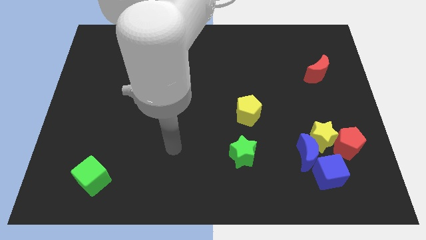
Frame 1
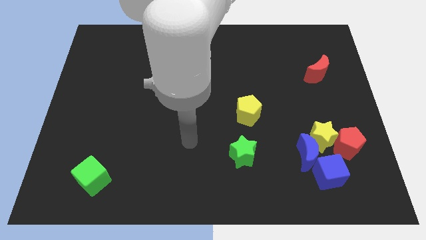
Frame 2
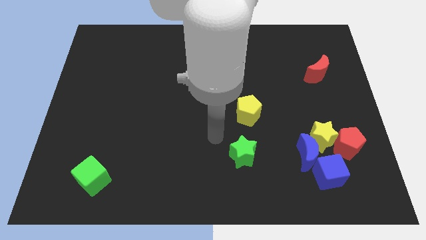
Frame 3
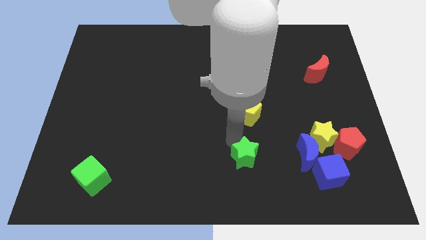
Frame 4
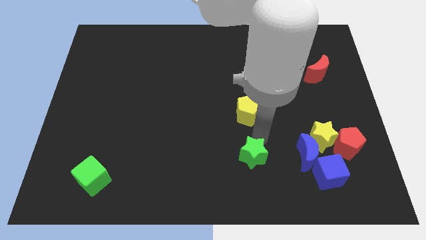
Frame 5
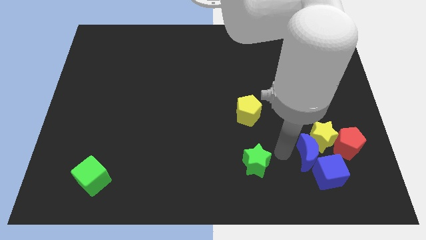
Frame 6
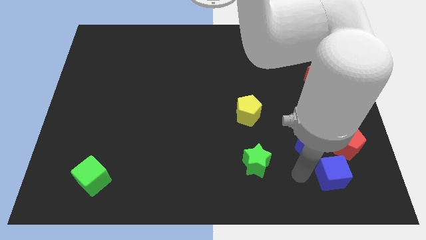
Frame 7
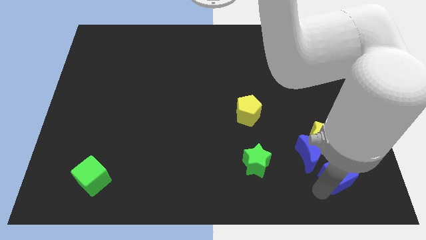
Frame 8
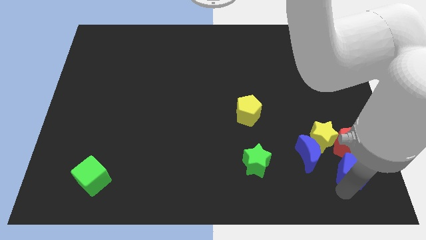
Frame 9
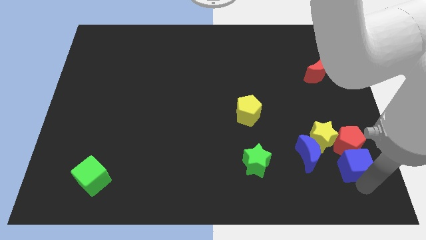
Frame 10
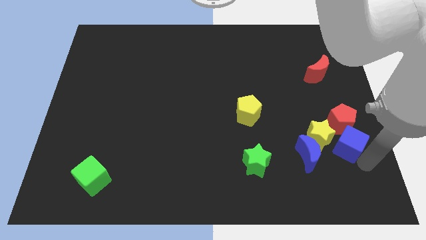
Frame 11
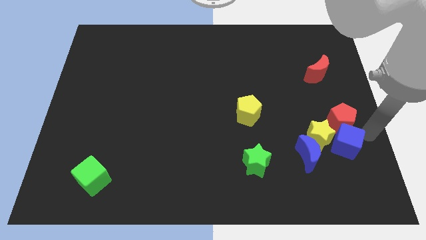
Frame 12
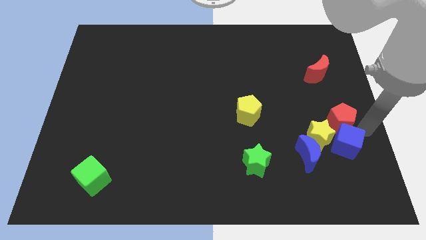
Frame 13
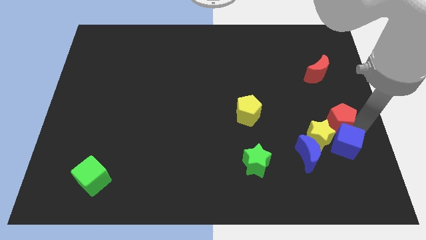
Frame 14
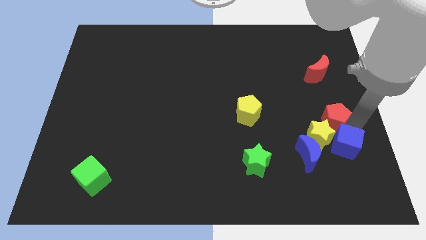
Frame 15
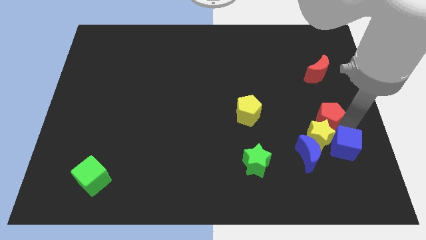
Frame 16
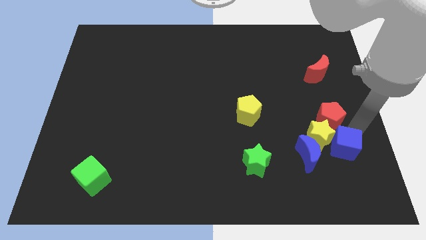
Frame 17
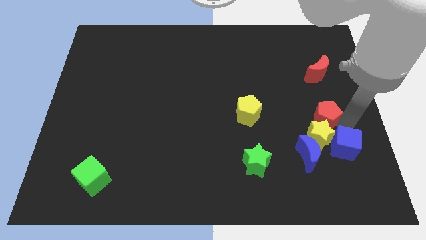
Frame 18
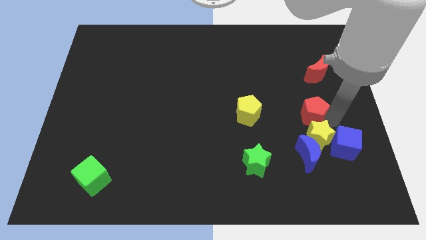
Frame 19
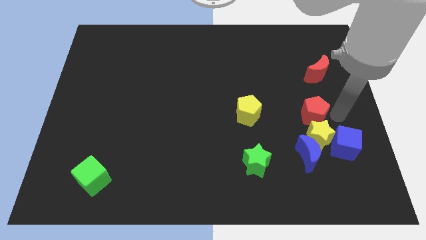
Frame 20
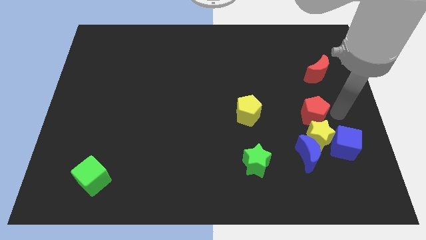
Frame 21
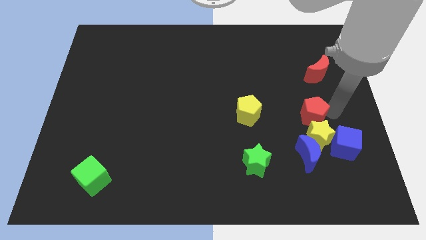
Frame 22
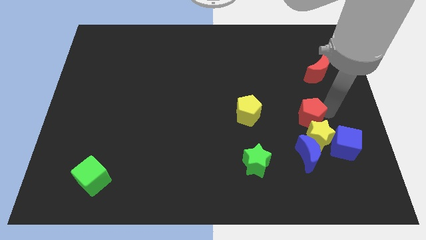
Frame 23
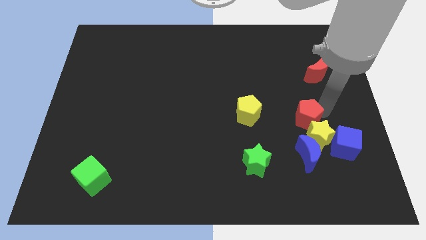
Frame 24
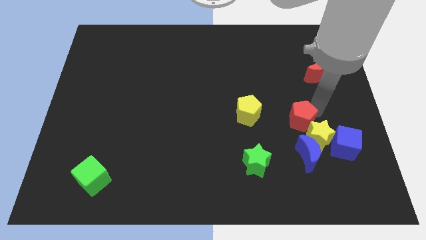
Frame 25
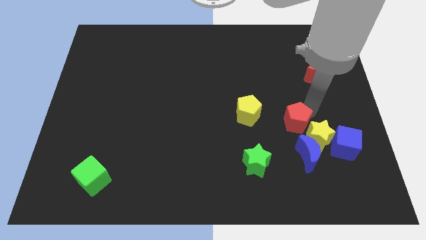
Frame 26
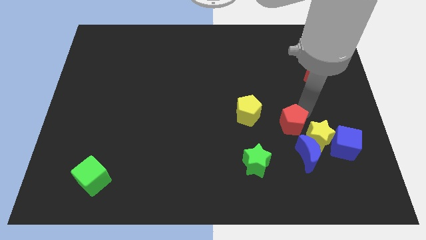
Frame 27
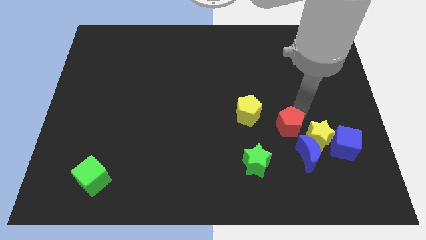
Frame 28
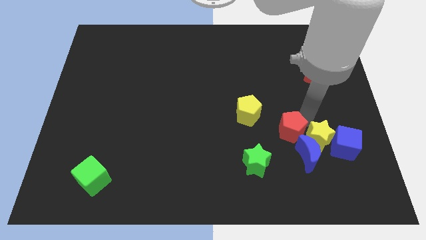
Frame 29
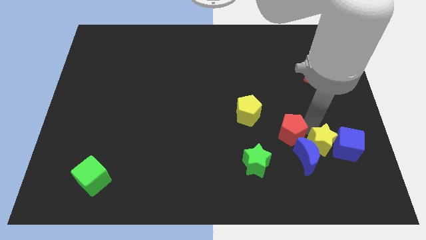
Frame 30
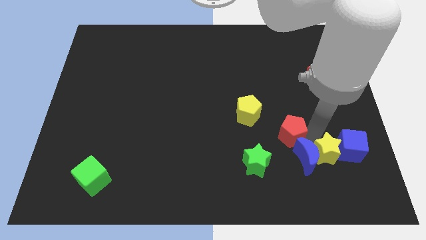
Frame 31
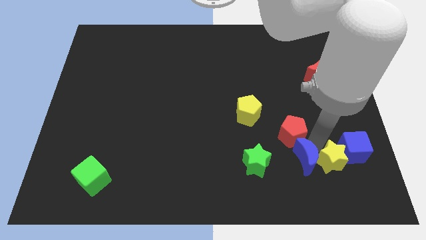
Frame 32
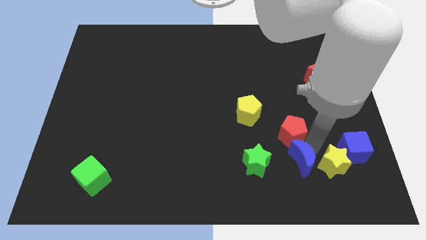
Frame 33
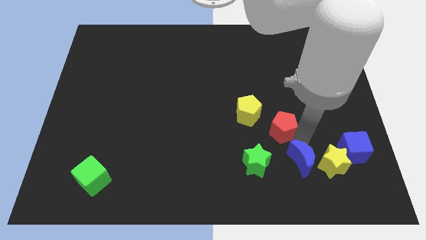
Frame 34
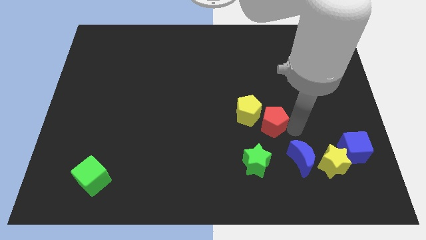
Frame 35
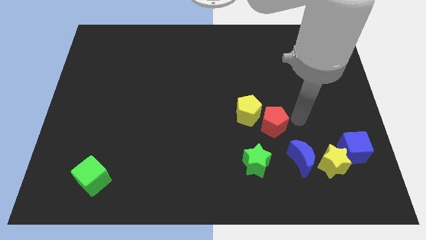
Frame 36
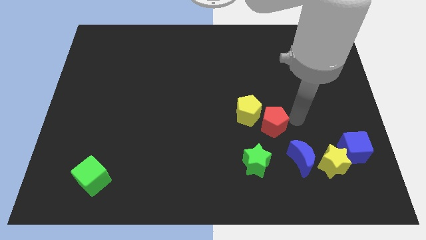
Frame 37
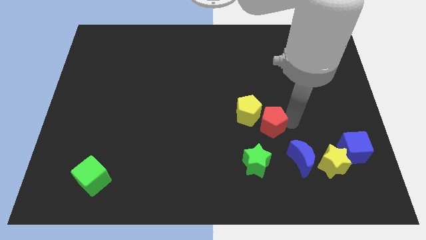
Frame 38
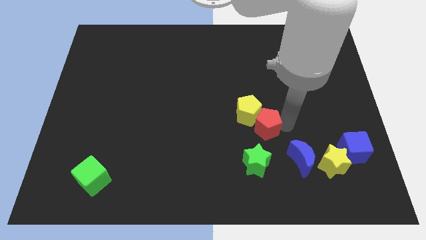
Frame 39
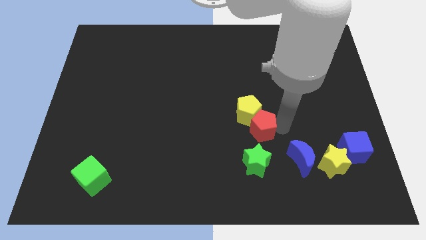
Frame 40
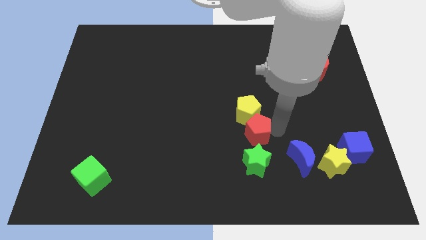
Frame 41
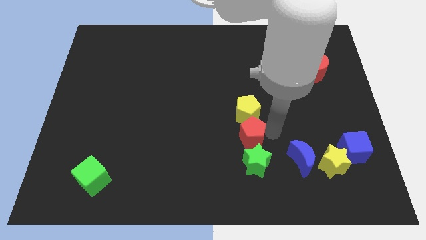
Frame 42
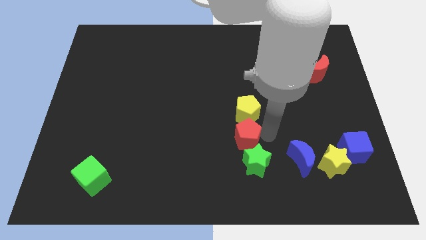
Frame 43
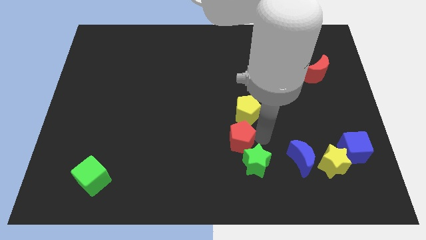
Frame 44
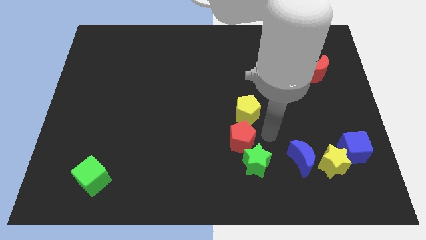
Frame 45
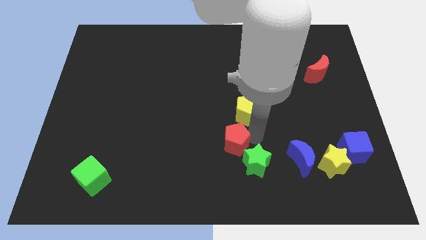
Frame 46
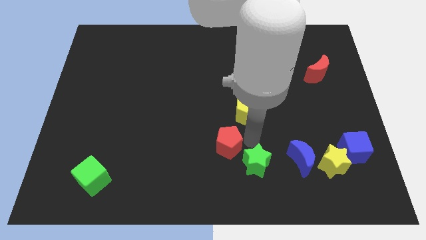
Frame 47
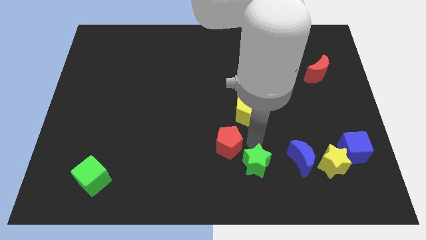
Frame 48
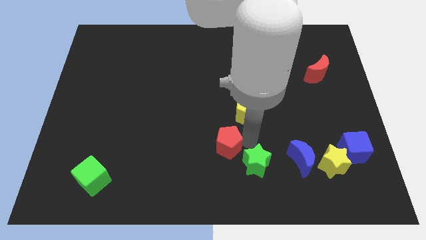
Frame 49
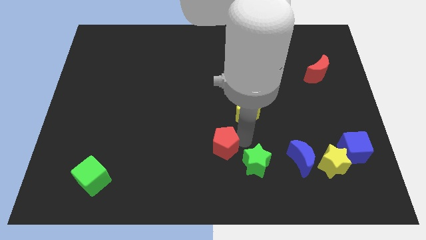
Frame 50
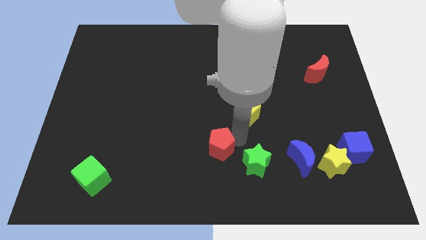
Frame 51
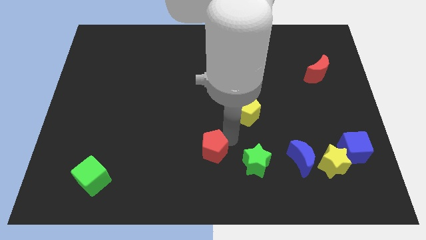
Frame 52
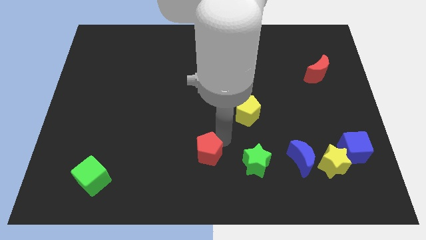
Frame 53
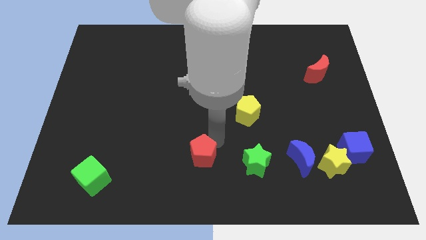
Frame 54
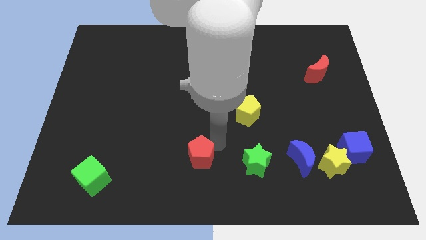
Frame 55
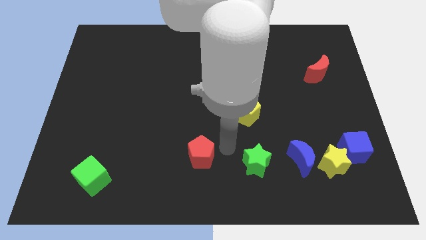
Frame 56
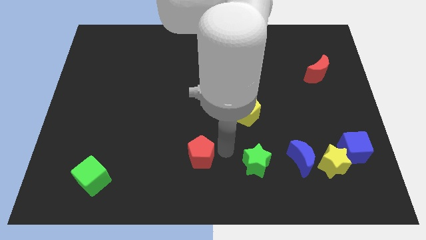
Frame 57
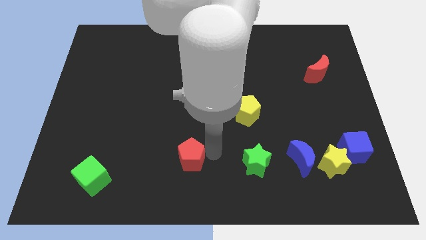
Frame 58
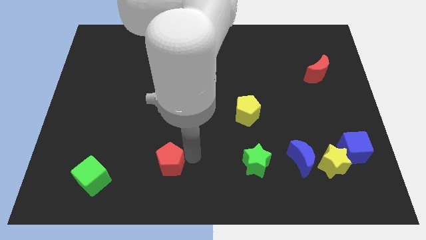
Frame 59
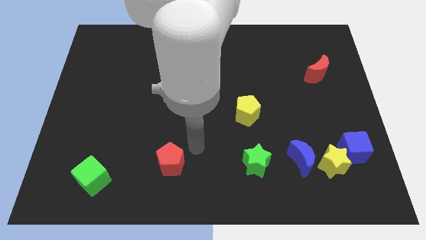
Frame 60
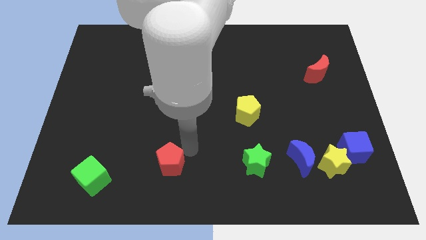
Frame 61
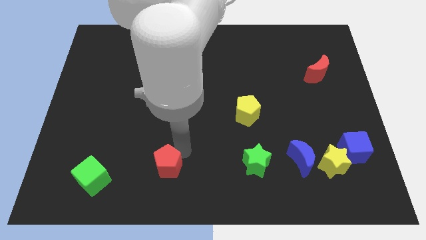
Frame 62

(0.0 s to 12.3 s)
push the red pentagon to the right of the green cube

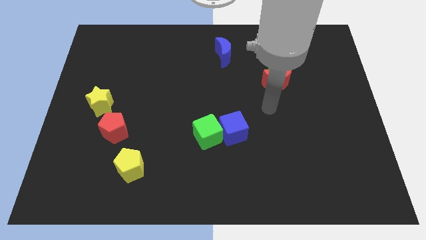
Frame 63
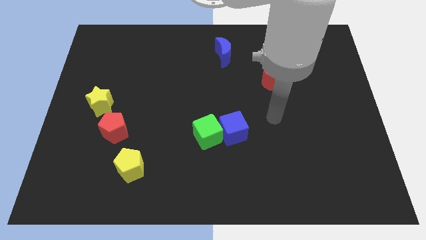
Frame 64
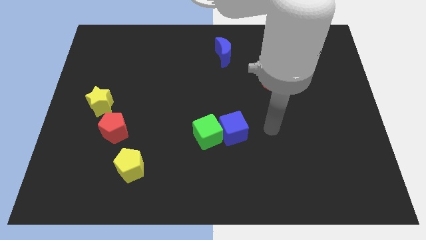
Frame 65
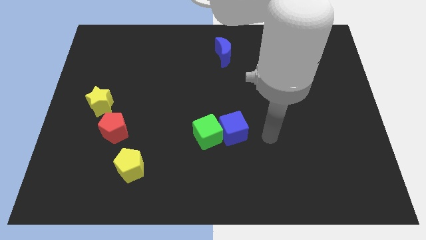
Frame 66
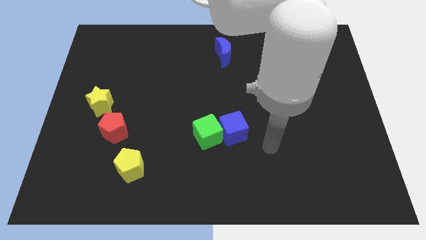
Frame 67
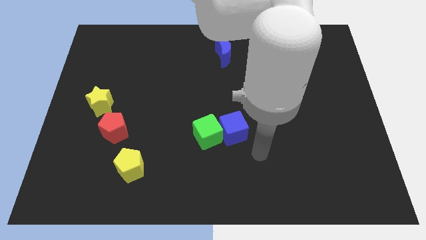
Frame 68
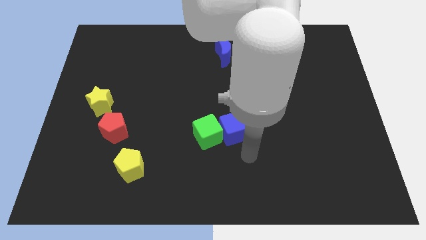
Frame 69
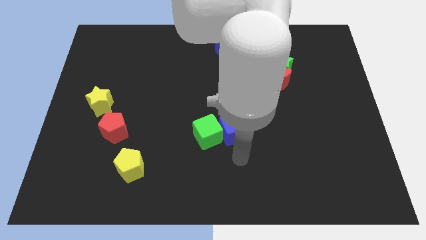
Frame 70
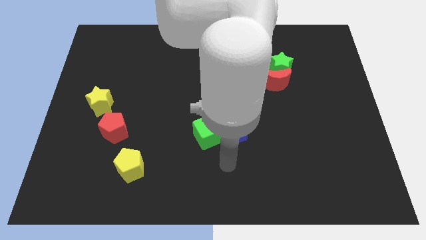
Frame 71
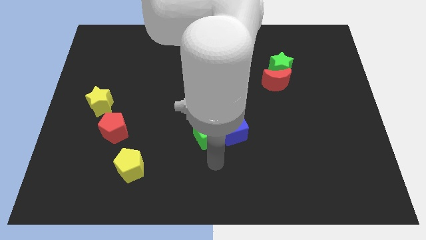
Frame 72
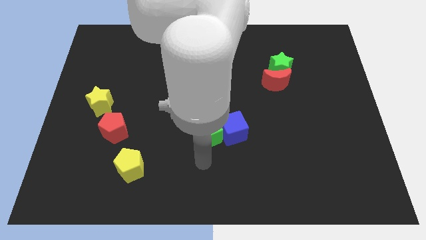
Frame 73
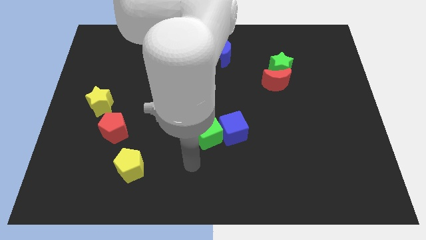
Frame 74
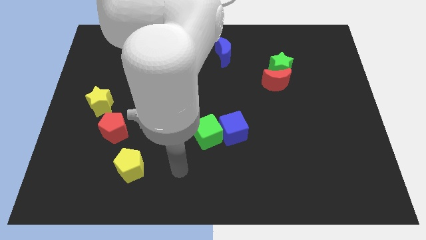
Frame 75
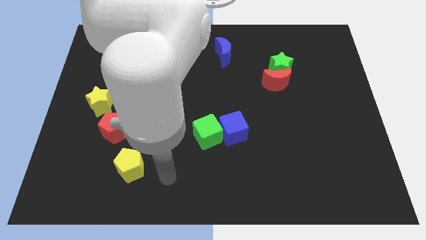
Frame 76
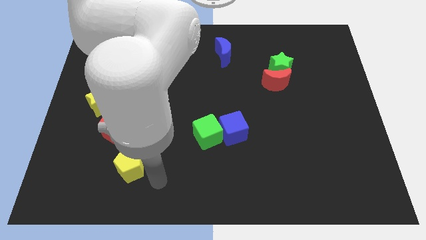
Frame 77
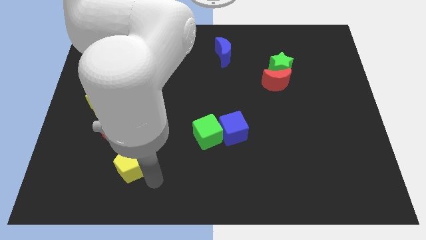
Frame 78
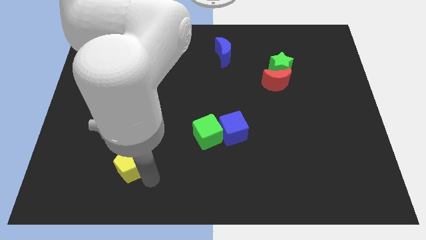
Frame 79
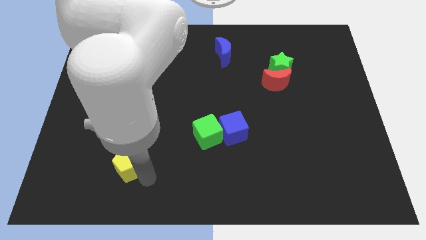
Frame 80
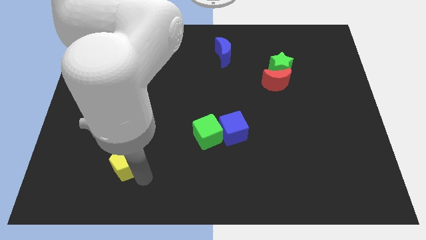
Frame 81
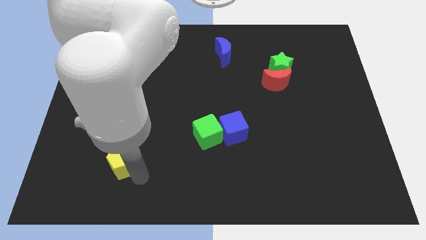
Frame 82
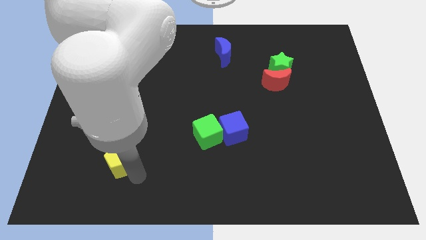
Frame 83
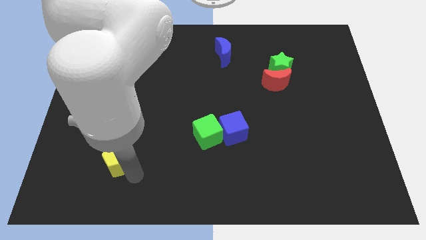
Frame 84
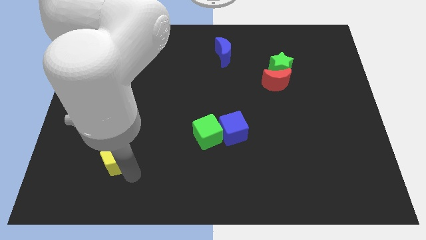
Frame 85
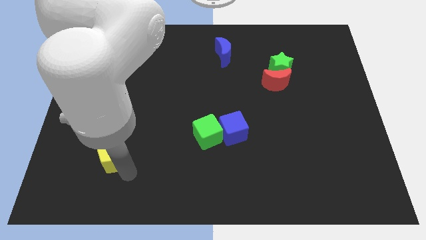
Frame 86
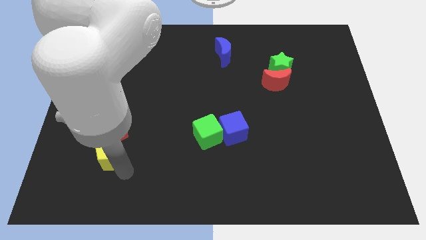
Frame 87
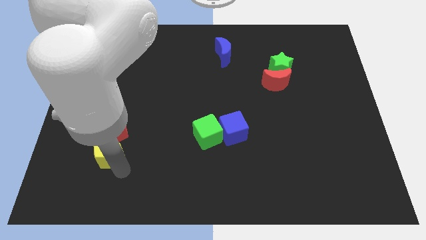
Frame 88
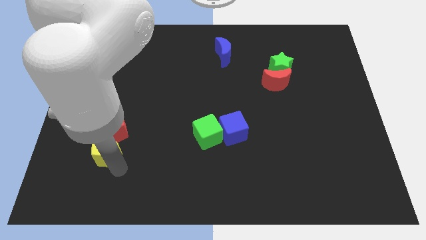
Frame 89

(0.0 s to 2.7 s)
move the yellow pentagon below the yellow star
